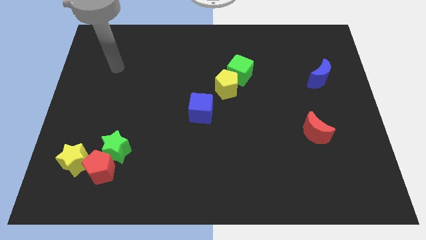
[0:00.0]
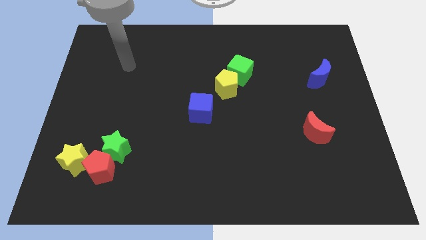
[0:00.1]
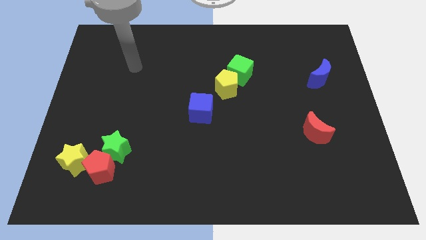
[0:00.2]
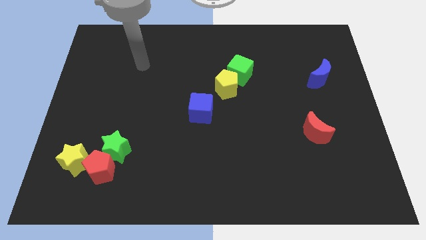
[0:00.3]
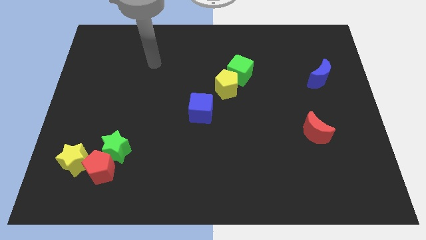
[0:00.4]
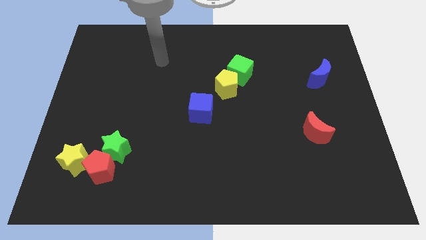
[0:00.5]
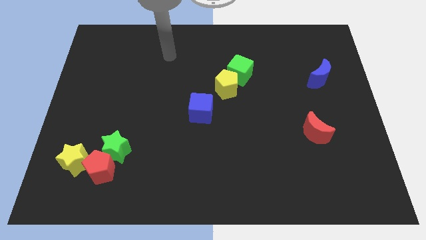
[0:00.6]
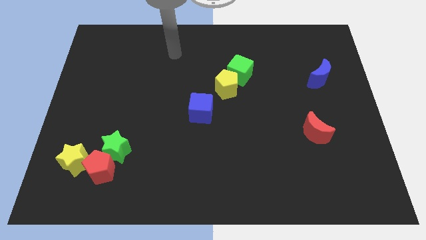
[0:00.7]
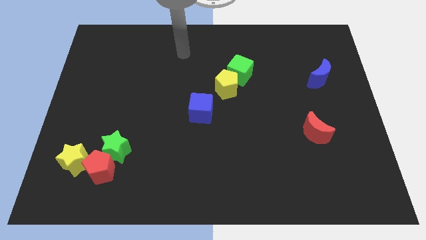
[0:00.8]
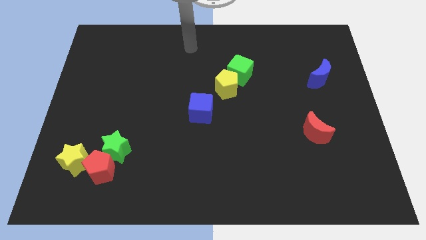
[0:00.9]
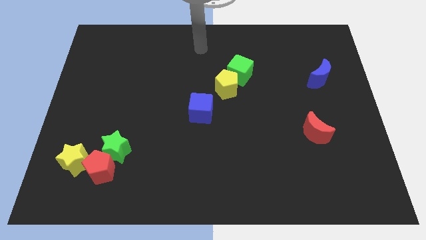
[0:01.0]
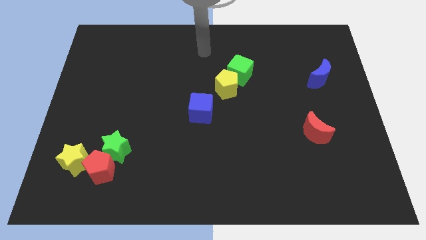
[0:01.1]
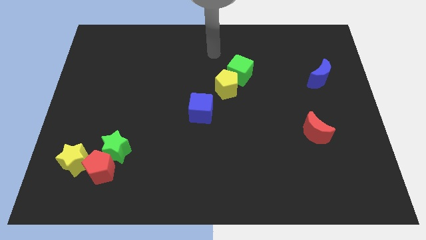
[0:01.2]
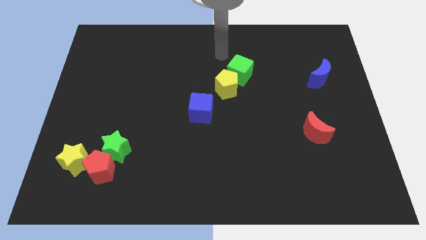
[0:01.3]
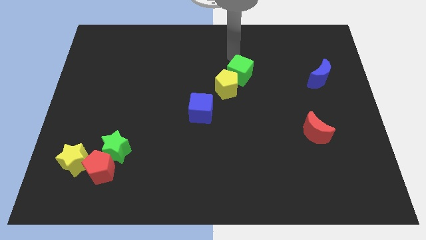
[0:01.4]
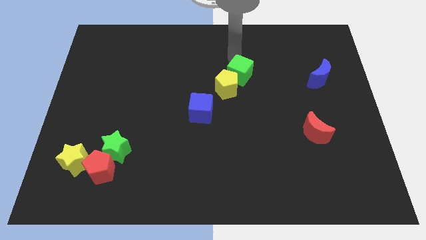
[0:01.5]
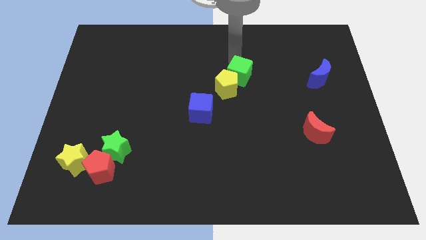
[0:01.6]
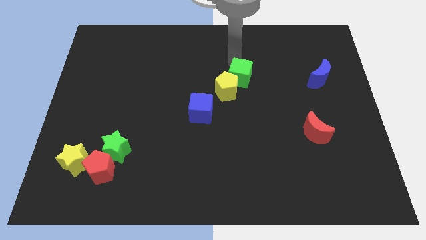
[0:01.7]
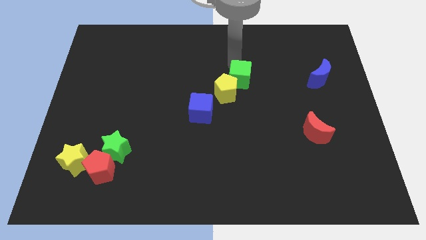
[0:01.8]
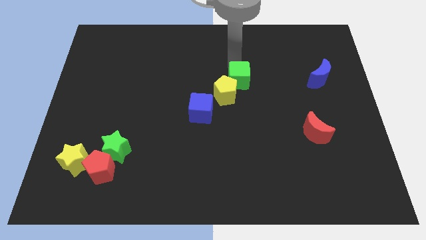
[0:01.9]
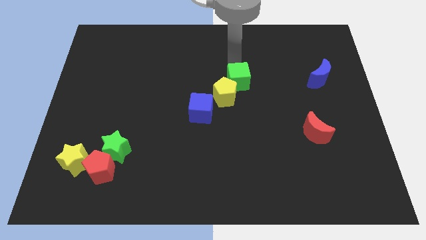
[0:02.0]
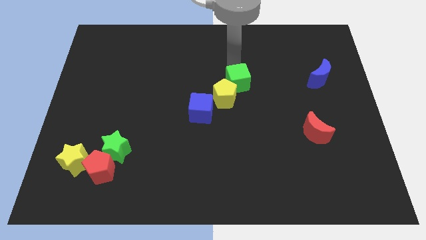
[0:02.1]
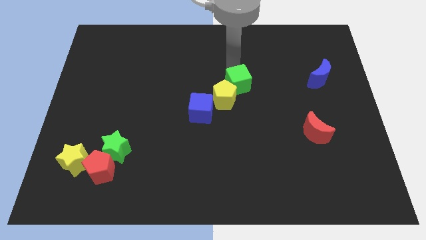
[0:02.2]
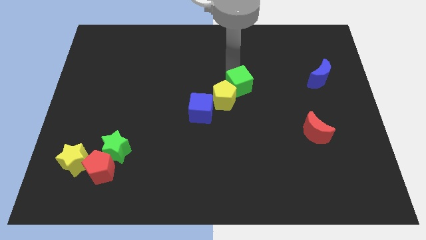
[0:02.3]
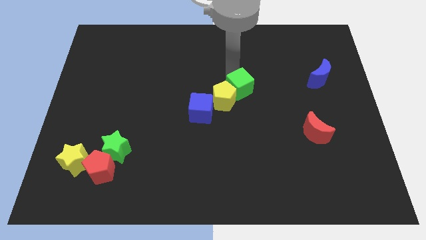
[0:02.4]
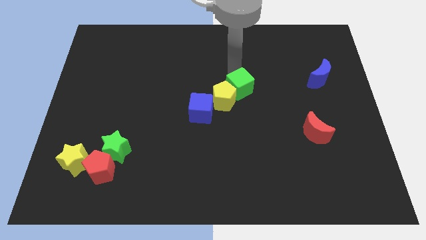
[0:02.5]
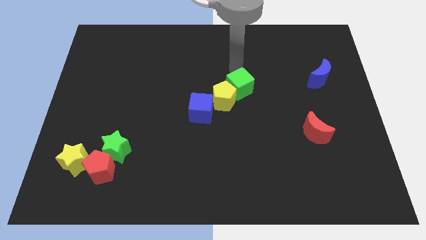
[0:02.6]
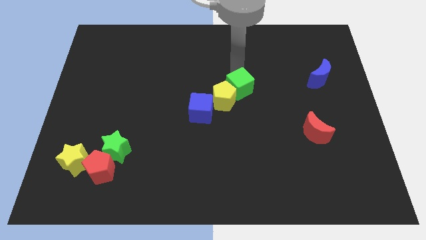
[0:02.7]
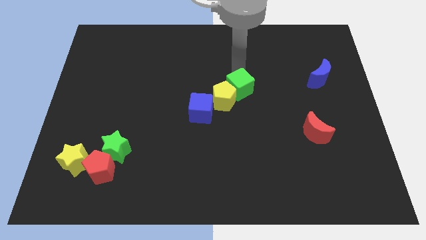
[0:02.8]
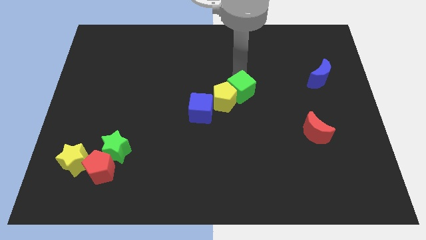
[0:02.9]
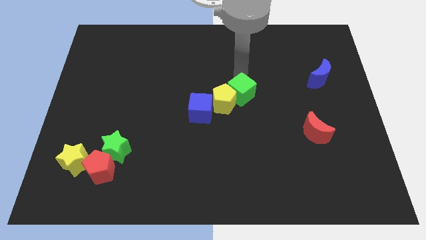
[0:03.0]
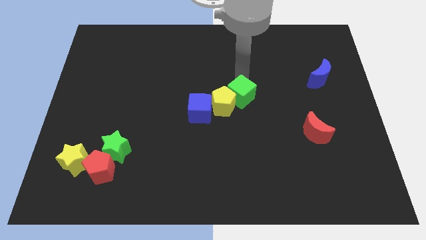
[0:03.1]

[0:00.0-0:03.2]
slightly slide the green cube downwards

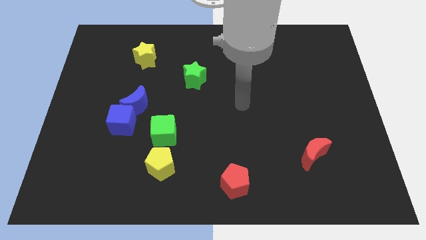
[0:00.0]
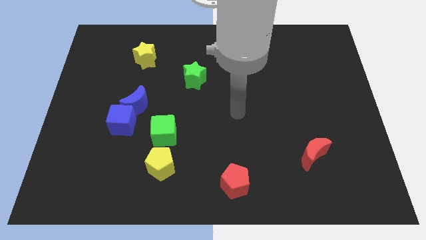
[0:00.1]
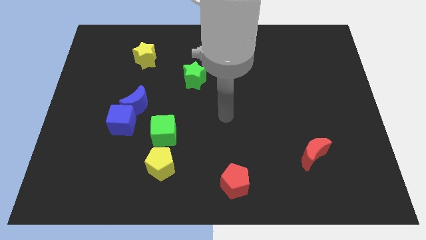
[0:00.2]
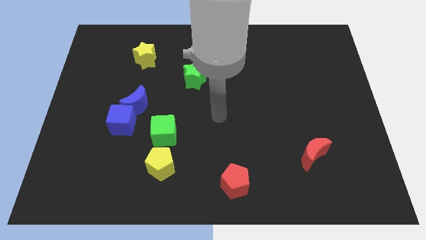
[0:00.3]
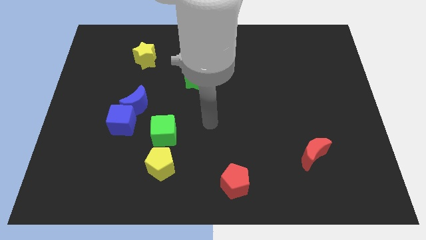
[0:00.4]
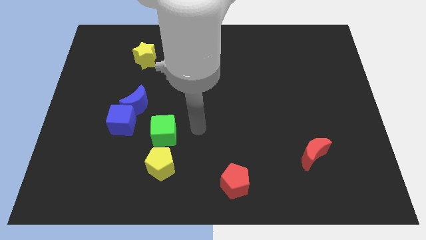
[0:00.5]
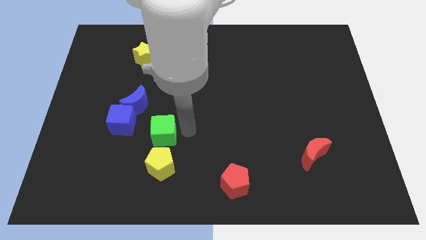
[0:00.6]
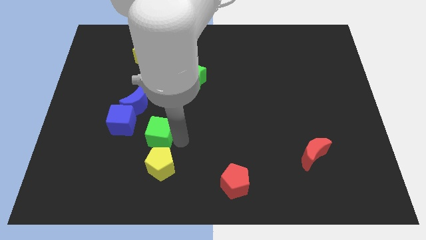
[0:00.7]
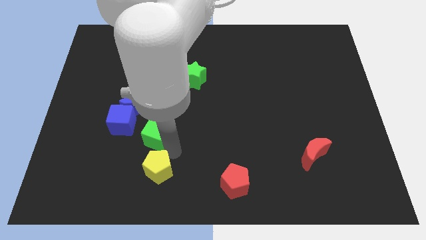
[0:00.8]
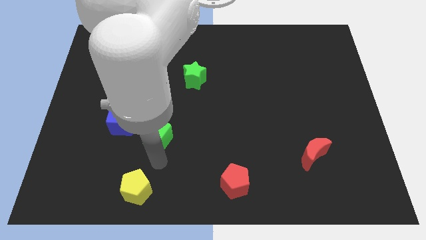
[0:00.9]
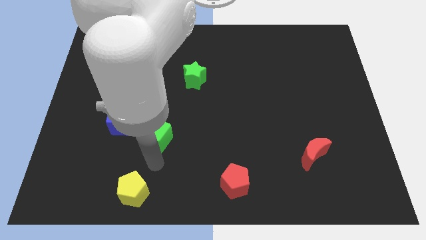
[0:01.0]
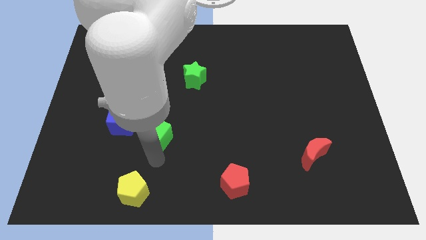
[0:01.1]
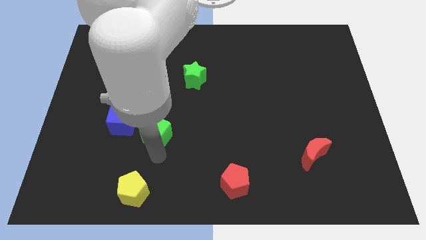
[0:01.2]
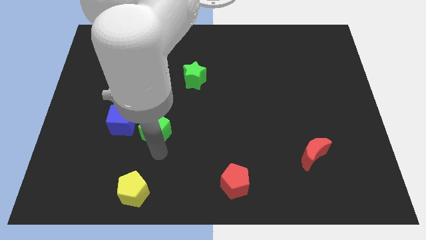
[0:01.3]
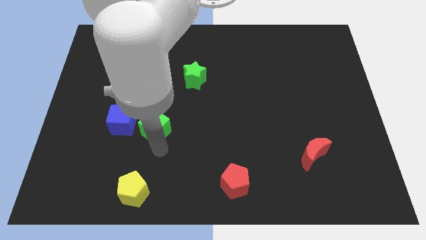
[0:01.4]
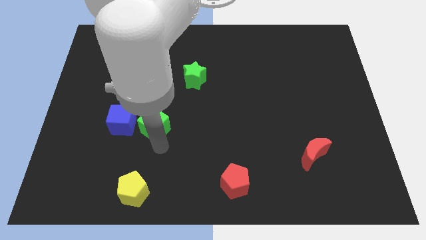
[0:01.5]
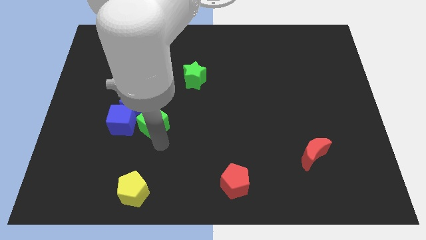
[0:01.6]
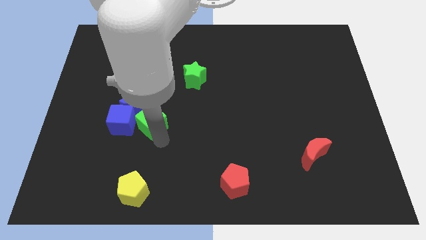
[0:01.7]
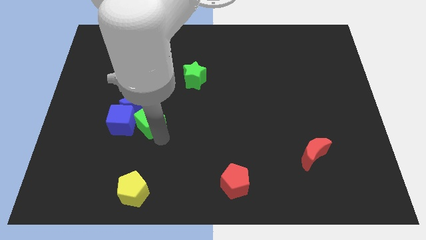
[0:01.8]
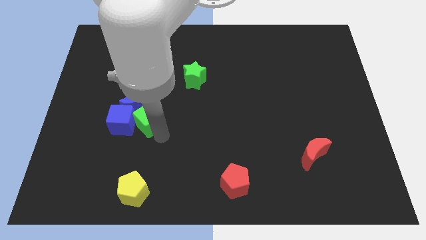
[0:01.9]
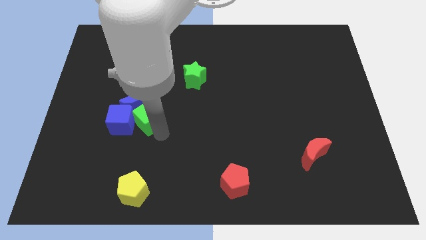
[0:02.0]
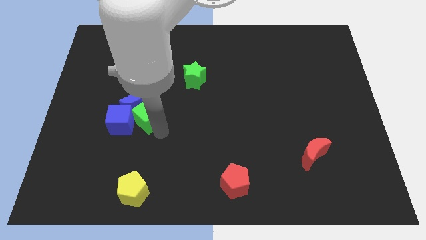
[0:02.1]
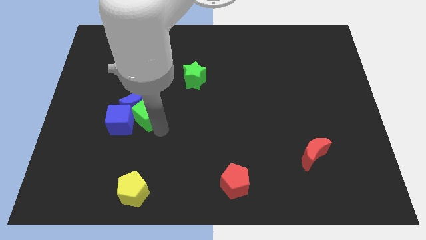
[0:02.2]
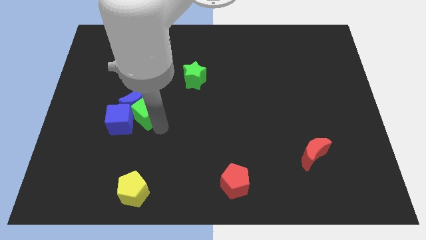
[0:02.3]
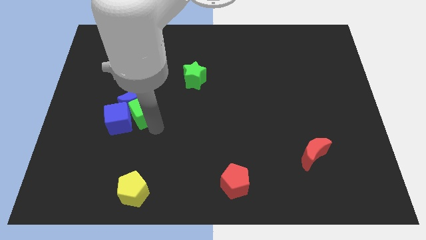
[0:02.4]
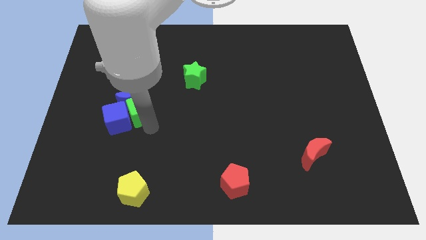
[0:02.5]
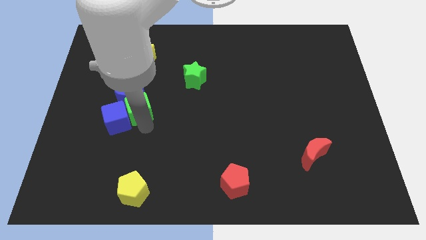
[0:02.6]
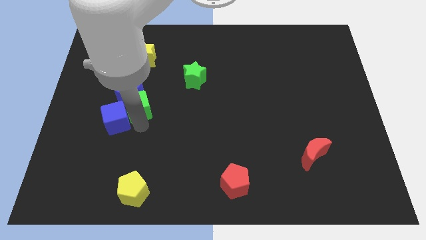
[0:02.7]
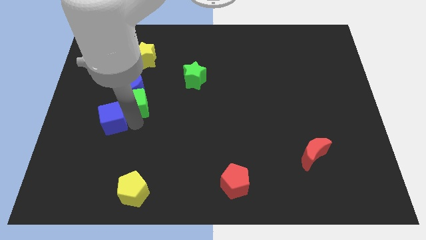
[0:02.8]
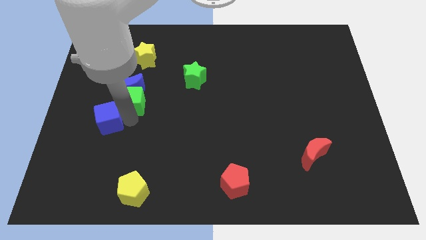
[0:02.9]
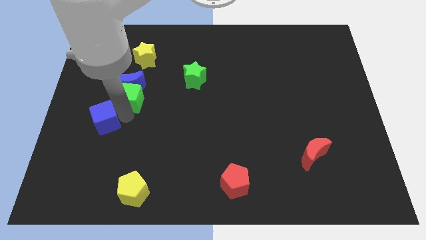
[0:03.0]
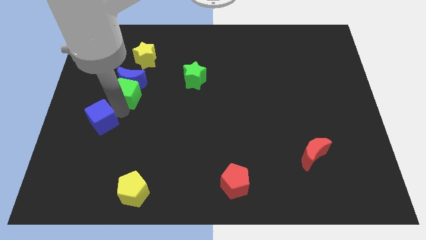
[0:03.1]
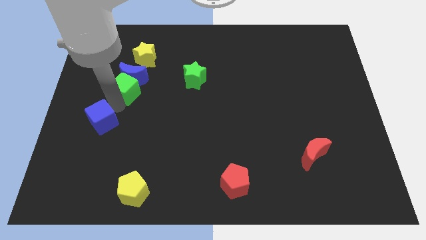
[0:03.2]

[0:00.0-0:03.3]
slide the green cube slightly upwards

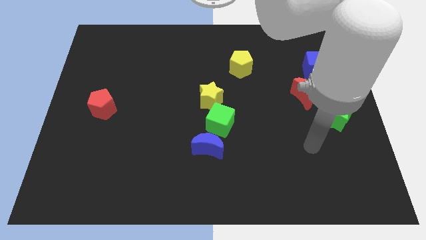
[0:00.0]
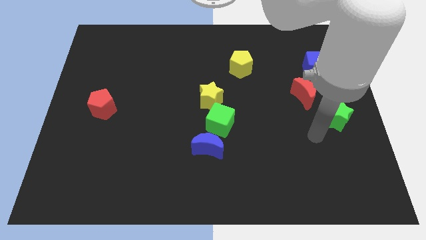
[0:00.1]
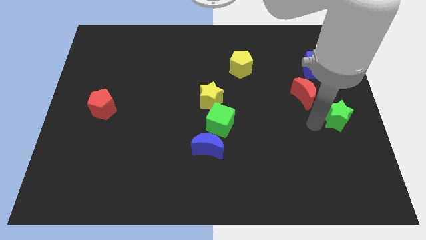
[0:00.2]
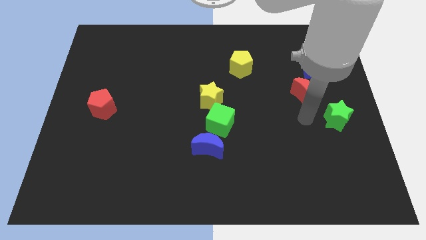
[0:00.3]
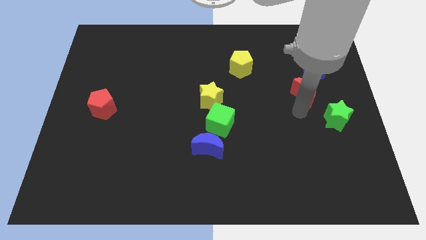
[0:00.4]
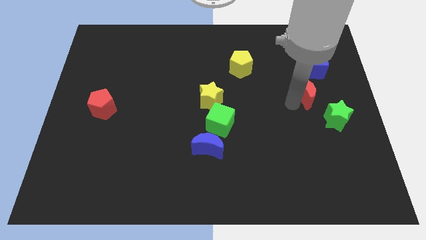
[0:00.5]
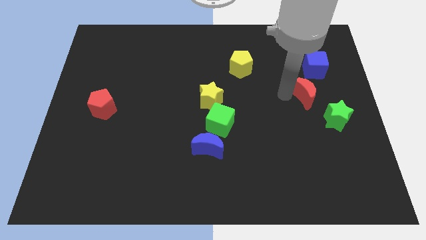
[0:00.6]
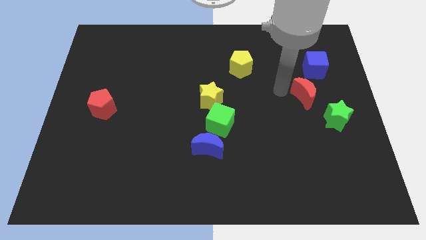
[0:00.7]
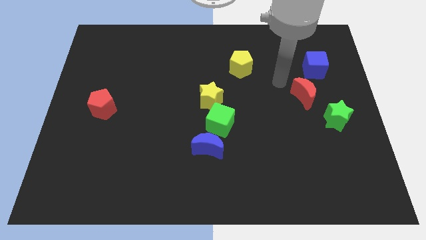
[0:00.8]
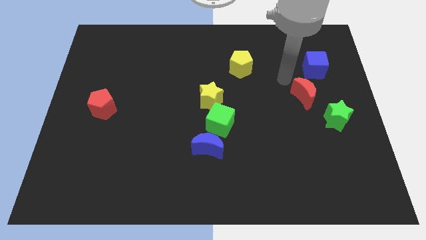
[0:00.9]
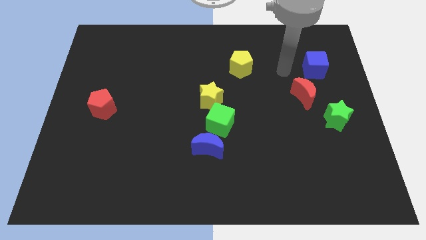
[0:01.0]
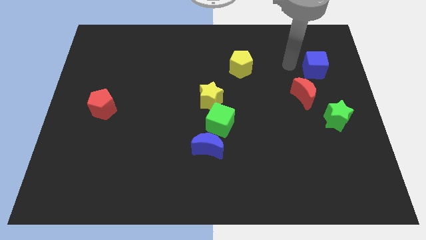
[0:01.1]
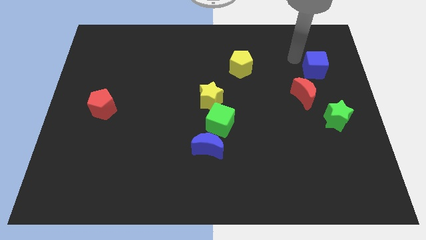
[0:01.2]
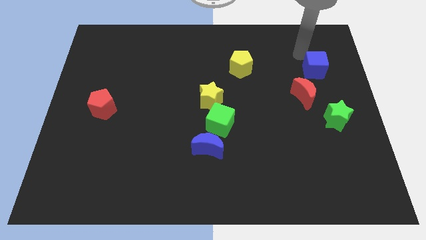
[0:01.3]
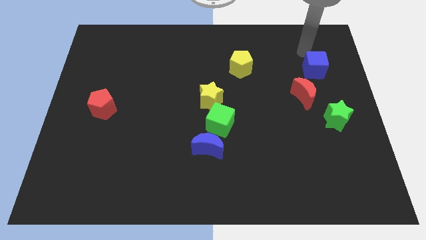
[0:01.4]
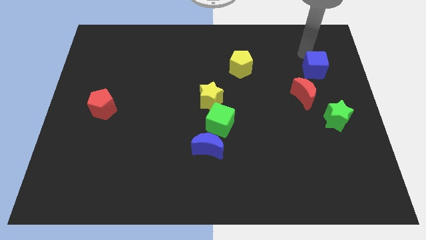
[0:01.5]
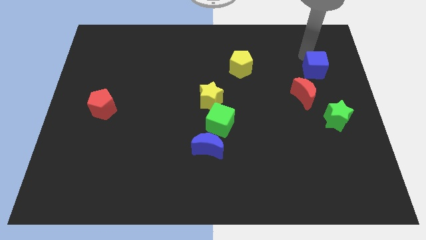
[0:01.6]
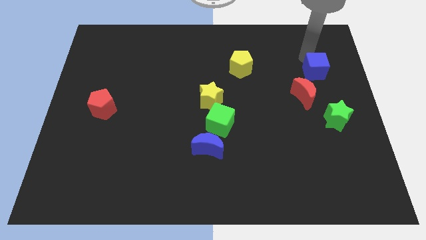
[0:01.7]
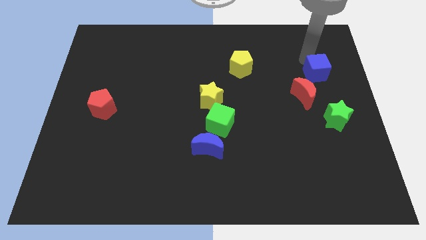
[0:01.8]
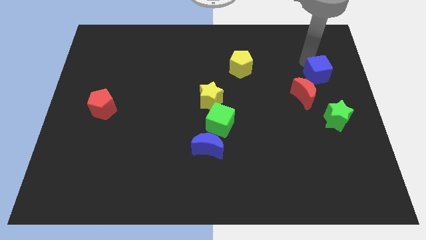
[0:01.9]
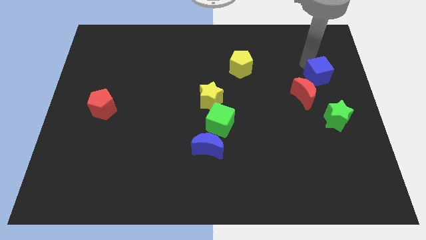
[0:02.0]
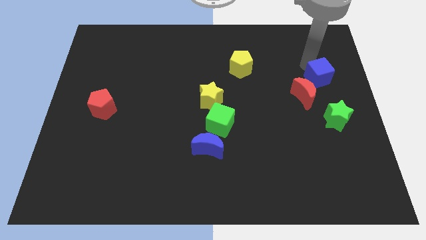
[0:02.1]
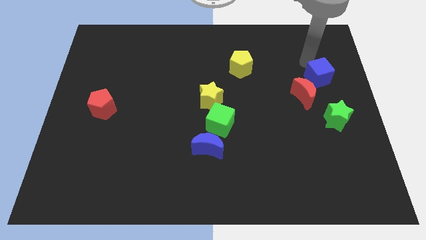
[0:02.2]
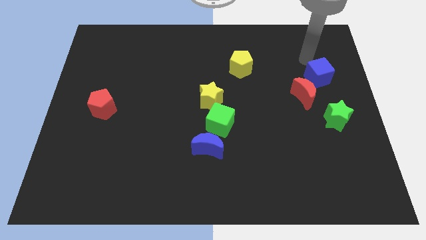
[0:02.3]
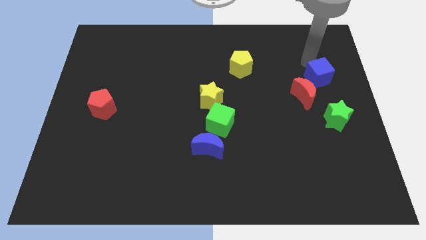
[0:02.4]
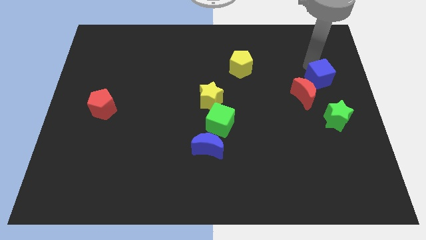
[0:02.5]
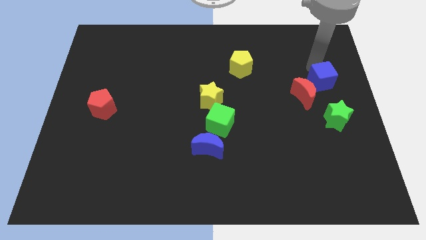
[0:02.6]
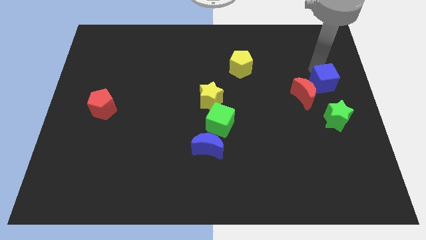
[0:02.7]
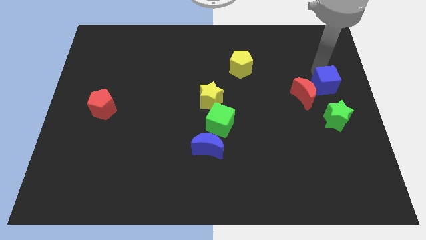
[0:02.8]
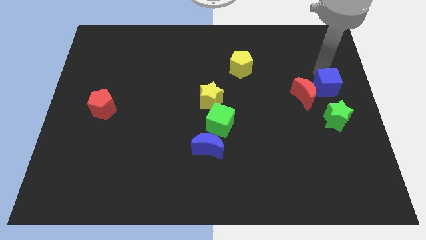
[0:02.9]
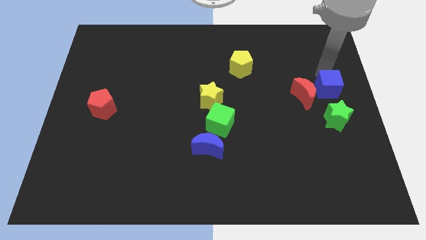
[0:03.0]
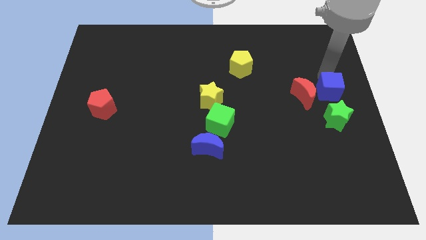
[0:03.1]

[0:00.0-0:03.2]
slide the blue cube slightly down
